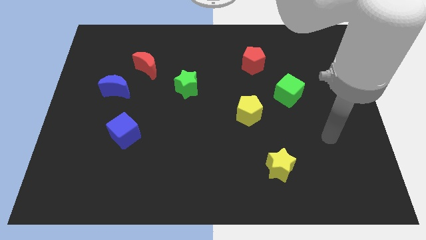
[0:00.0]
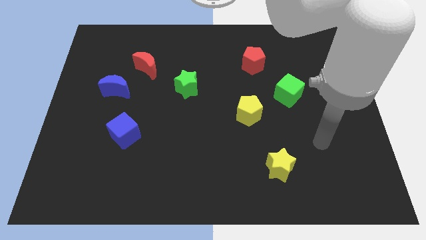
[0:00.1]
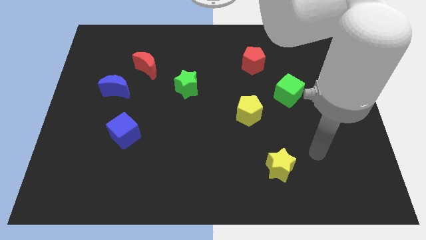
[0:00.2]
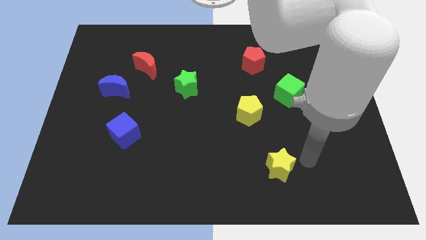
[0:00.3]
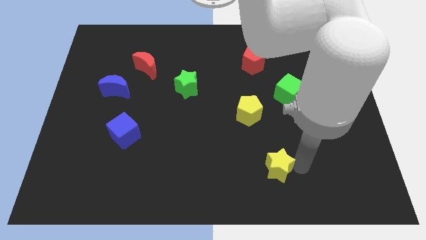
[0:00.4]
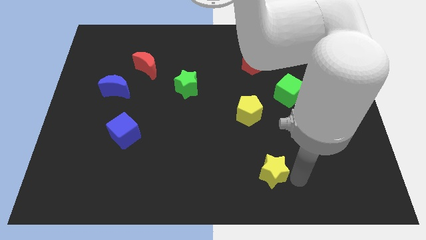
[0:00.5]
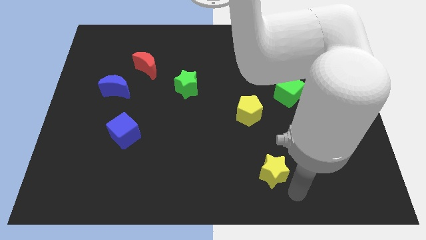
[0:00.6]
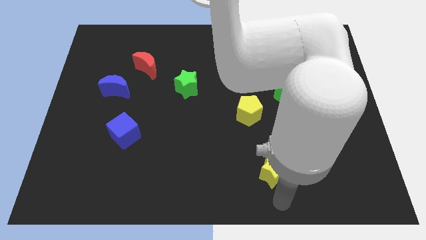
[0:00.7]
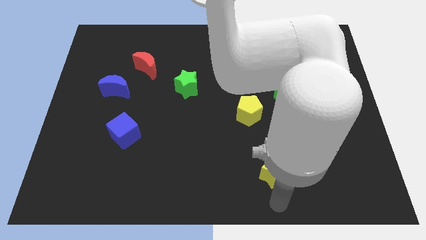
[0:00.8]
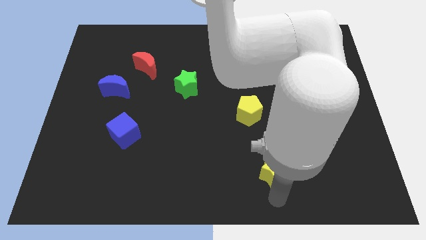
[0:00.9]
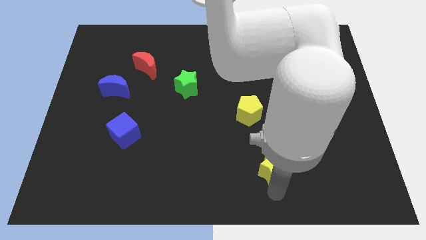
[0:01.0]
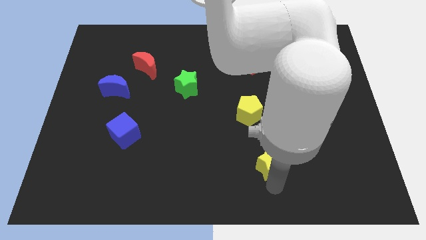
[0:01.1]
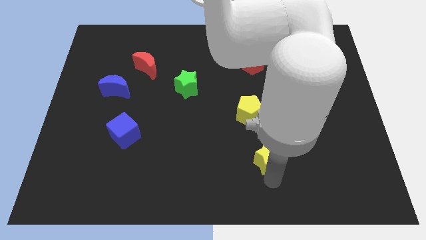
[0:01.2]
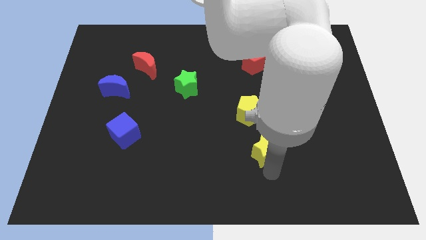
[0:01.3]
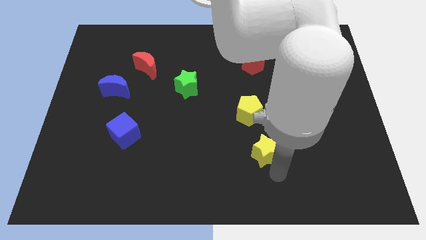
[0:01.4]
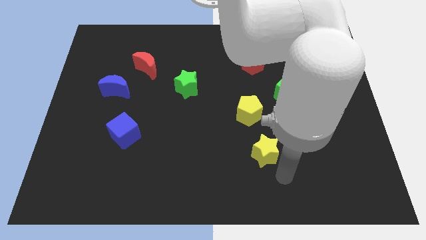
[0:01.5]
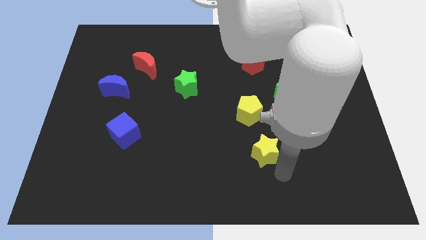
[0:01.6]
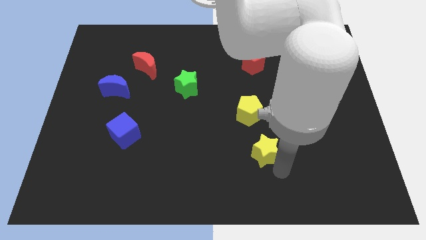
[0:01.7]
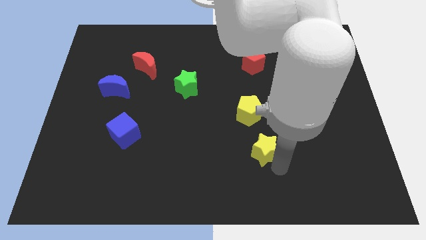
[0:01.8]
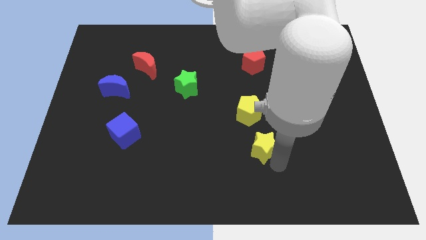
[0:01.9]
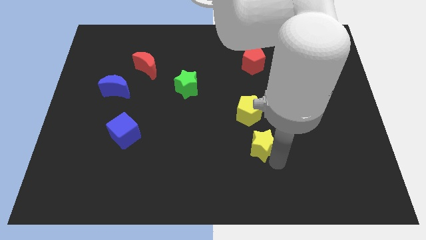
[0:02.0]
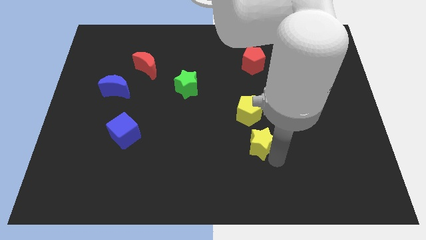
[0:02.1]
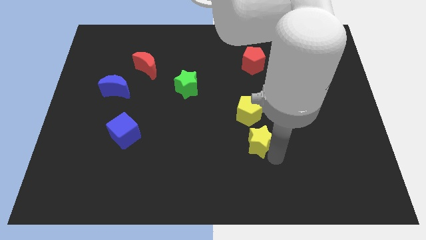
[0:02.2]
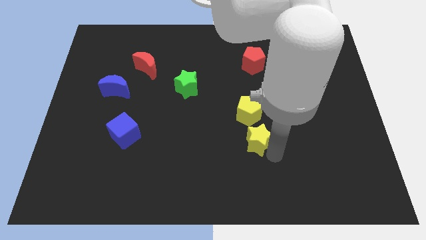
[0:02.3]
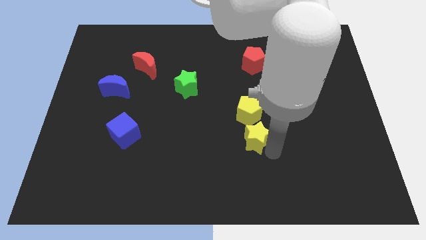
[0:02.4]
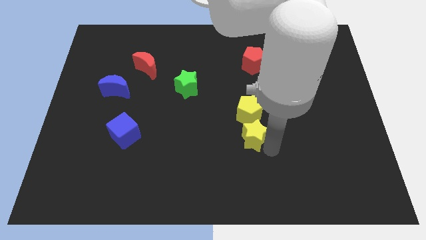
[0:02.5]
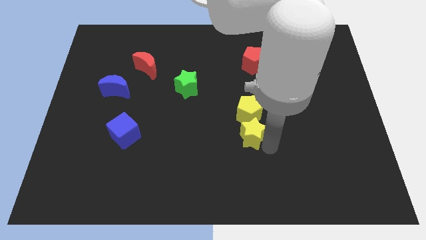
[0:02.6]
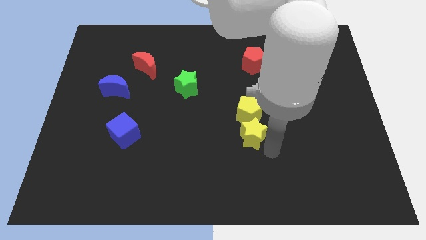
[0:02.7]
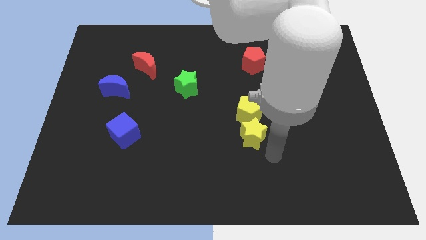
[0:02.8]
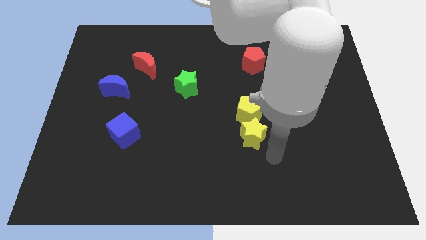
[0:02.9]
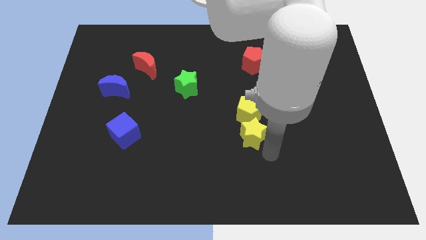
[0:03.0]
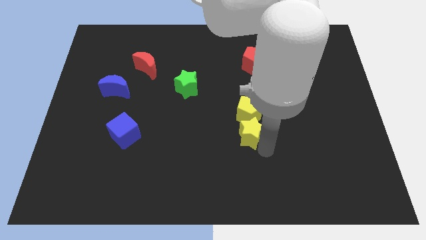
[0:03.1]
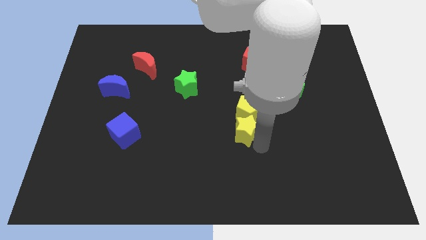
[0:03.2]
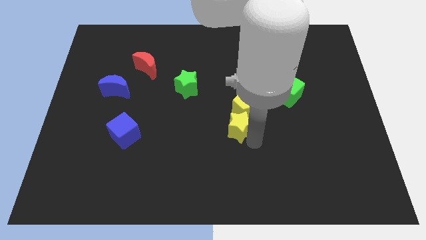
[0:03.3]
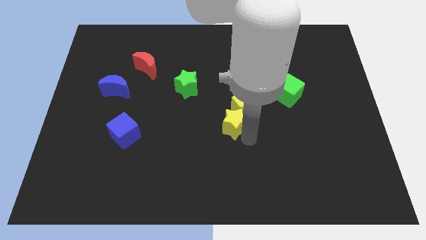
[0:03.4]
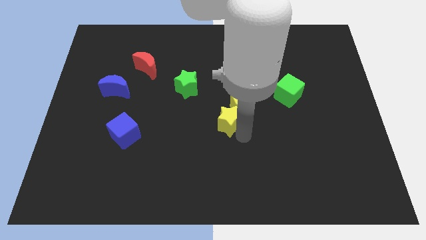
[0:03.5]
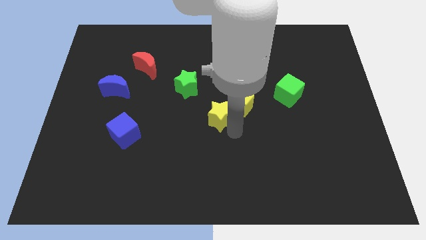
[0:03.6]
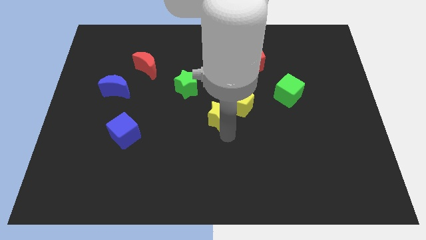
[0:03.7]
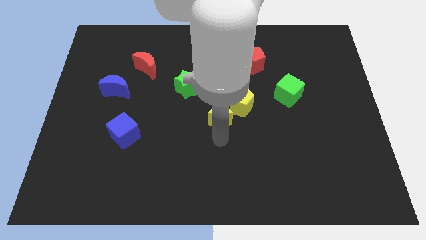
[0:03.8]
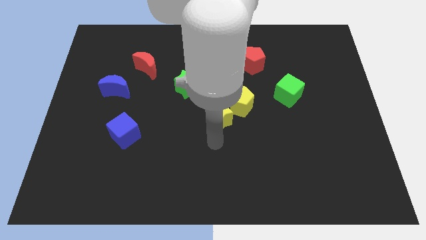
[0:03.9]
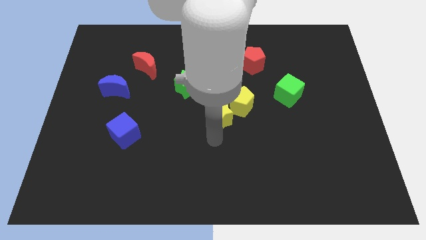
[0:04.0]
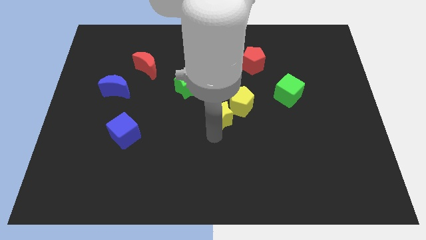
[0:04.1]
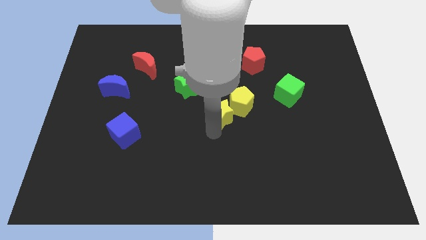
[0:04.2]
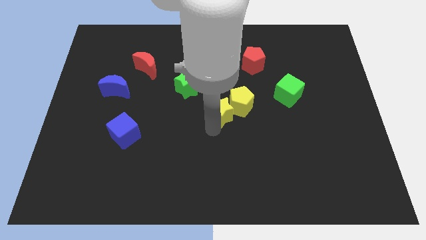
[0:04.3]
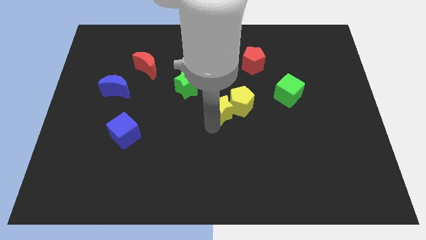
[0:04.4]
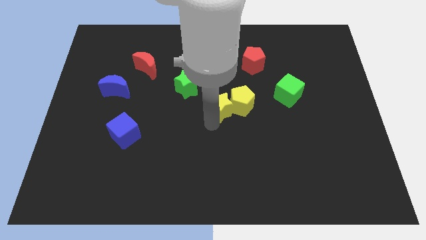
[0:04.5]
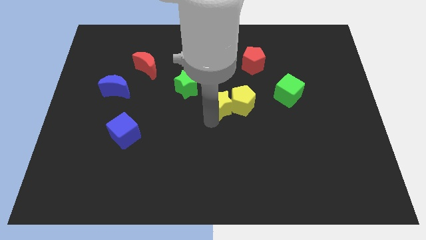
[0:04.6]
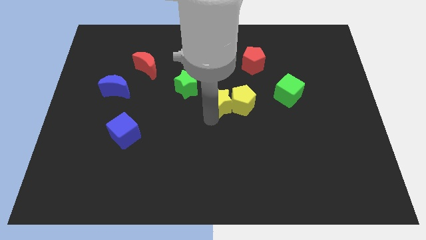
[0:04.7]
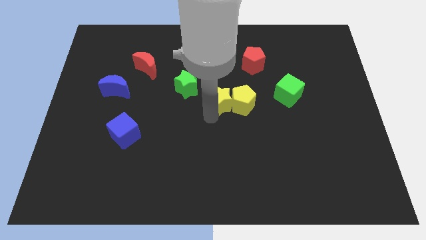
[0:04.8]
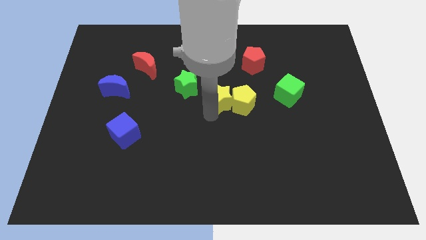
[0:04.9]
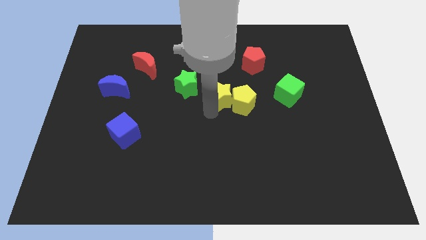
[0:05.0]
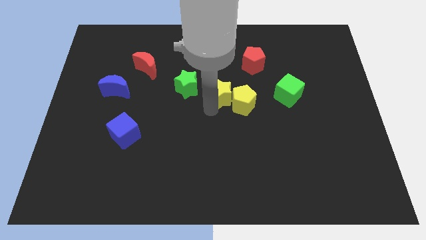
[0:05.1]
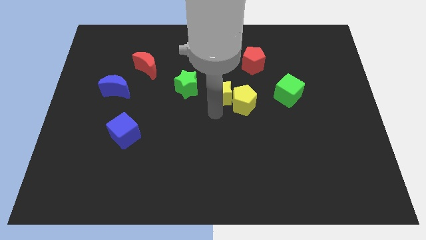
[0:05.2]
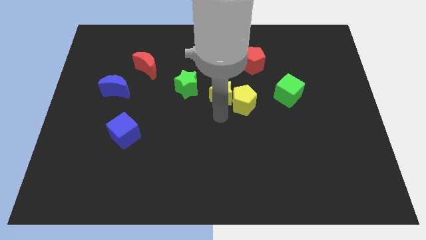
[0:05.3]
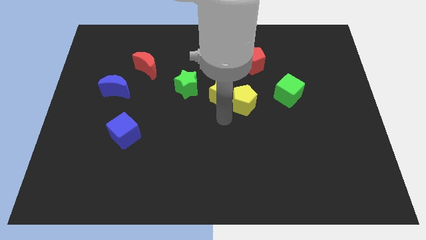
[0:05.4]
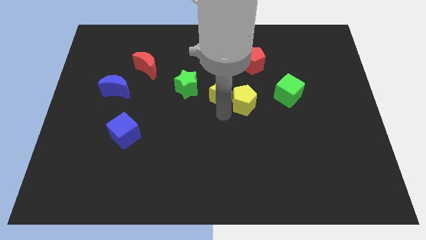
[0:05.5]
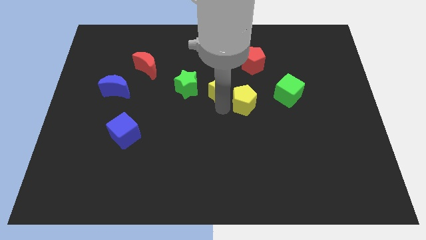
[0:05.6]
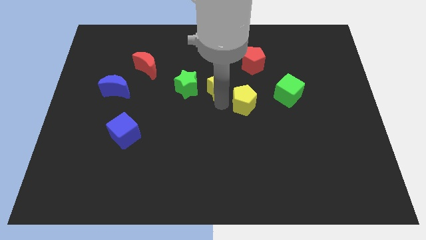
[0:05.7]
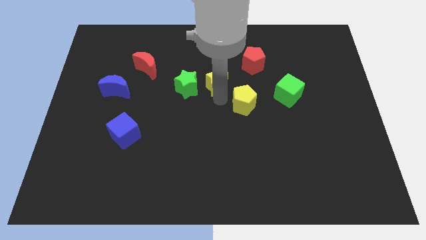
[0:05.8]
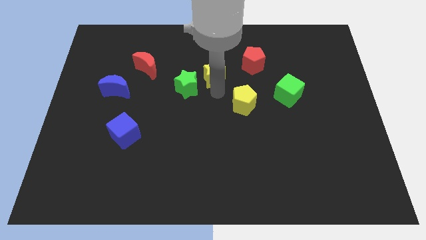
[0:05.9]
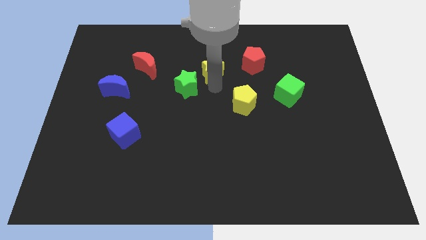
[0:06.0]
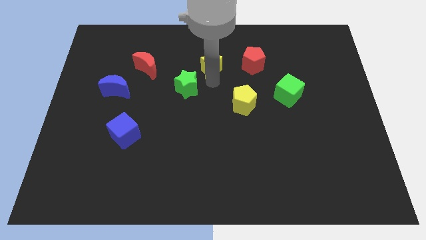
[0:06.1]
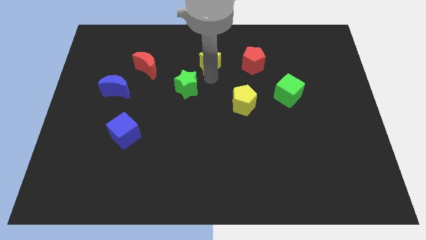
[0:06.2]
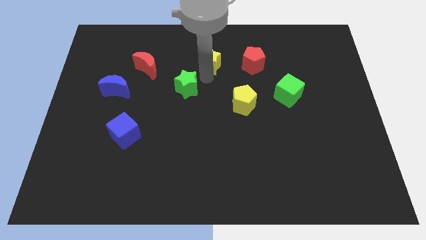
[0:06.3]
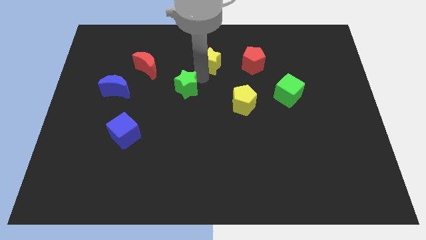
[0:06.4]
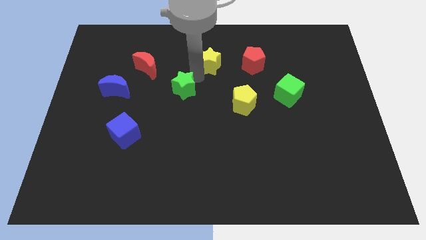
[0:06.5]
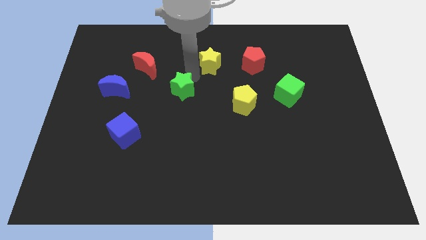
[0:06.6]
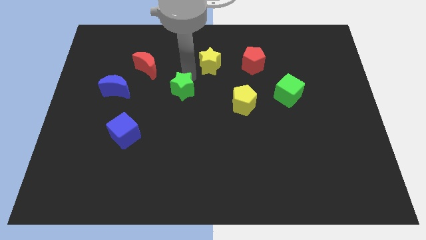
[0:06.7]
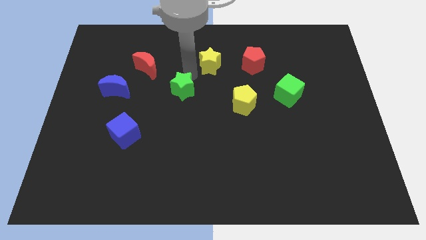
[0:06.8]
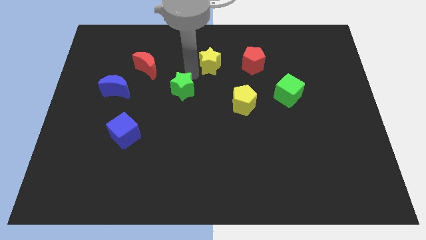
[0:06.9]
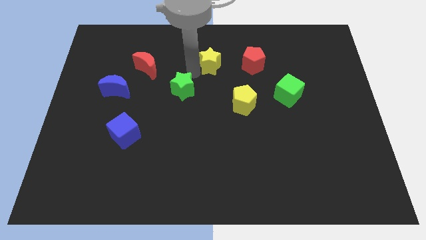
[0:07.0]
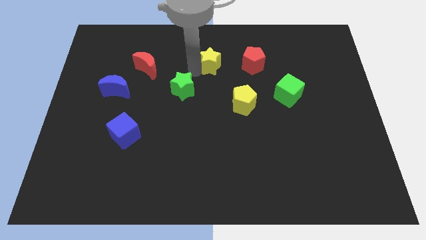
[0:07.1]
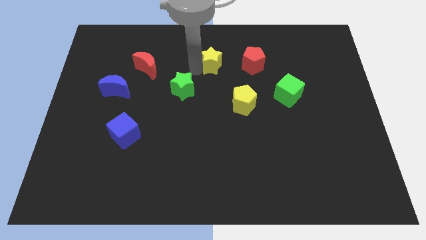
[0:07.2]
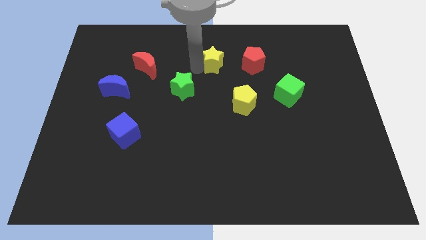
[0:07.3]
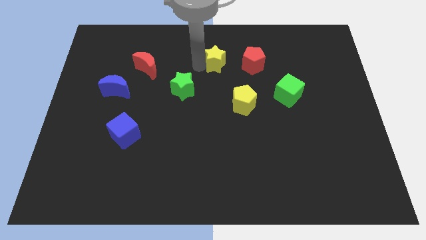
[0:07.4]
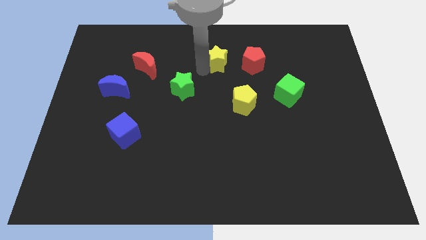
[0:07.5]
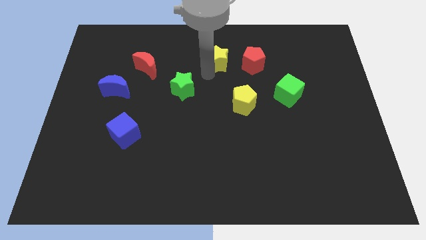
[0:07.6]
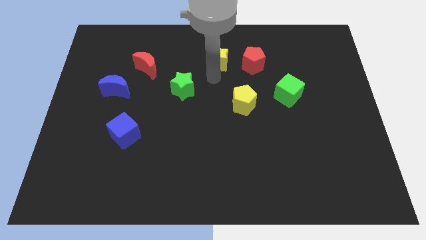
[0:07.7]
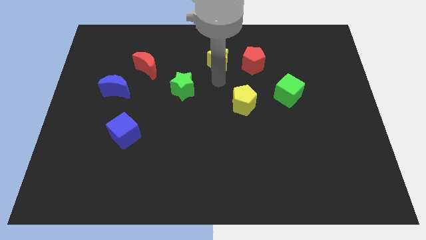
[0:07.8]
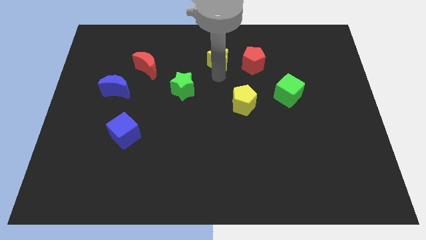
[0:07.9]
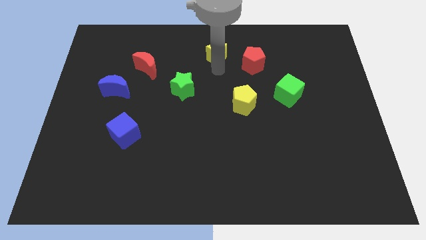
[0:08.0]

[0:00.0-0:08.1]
put the yellow star to the towards your base
